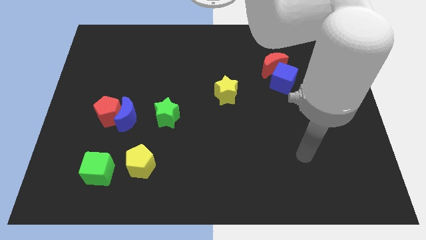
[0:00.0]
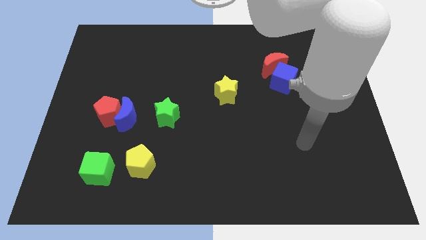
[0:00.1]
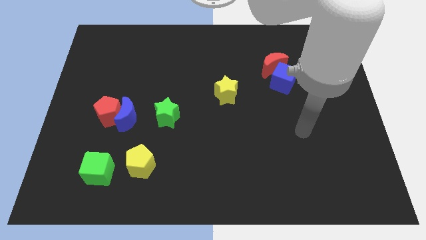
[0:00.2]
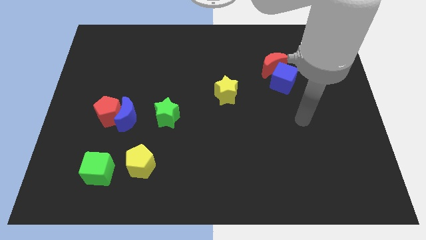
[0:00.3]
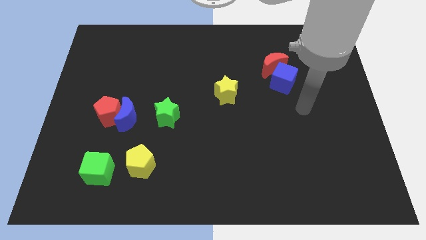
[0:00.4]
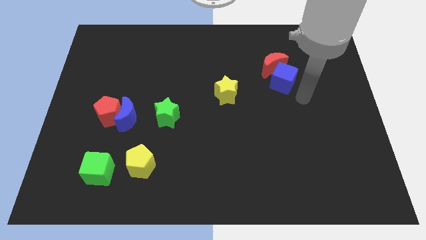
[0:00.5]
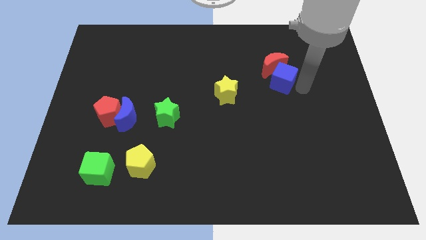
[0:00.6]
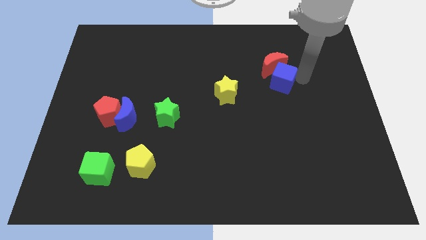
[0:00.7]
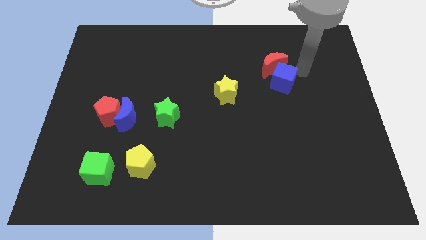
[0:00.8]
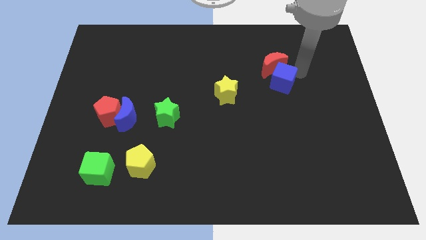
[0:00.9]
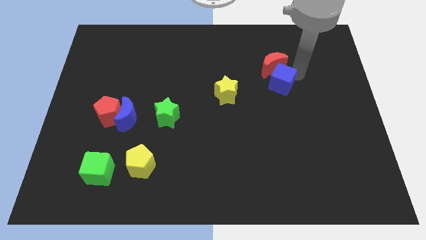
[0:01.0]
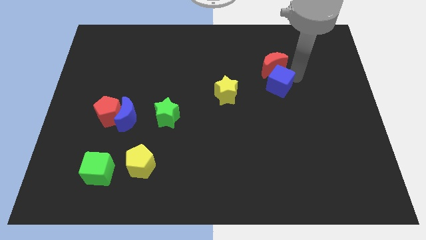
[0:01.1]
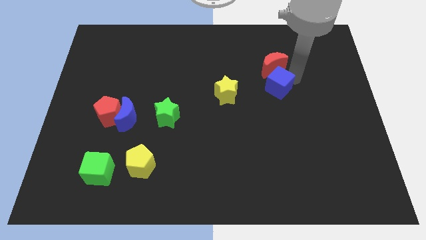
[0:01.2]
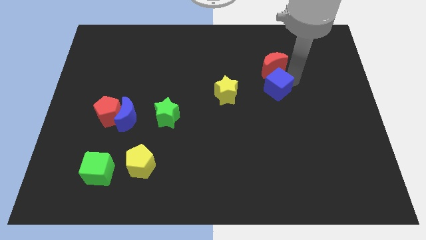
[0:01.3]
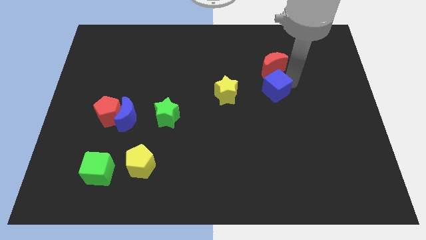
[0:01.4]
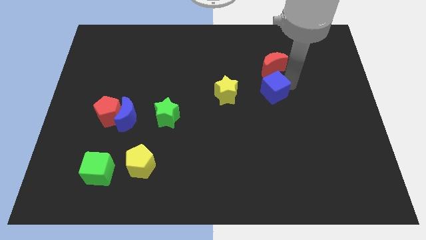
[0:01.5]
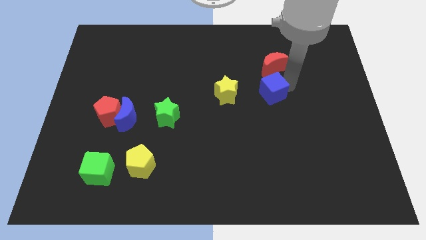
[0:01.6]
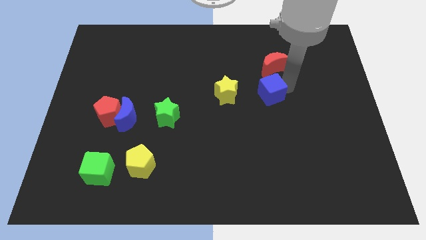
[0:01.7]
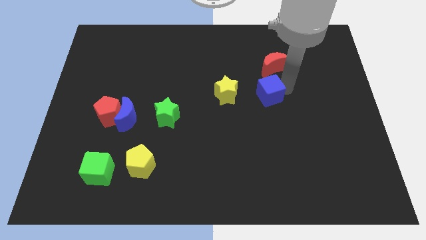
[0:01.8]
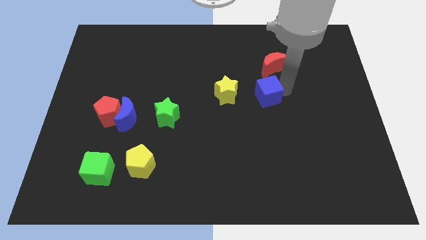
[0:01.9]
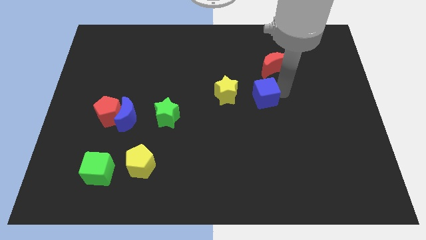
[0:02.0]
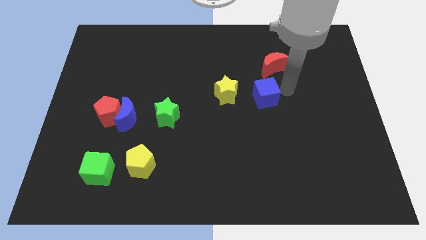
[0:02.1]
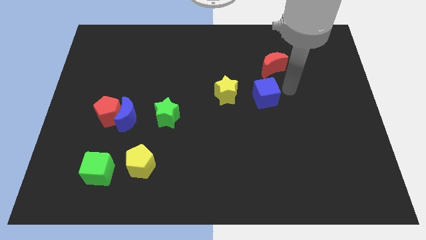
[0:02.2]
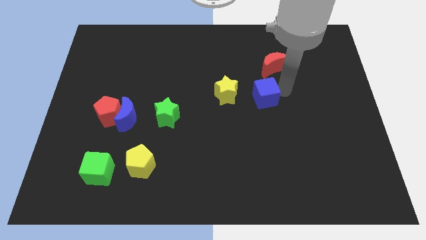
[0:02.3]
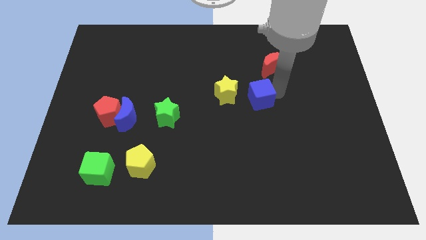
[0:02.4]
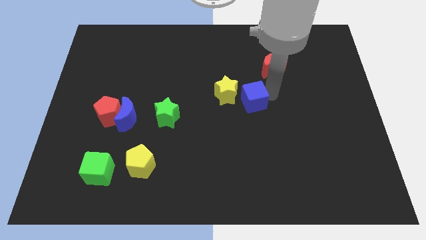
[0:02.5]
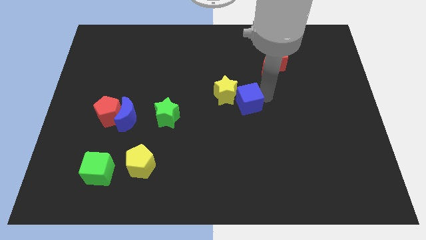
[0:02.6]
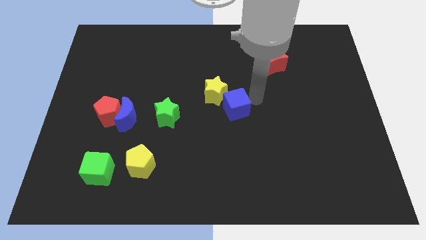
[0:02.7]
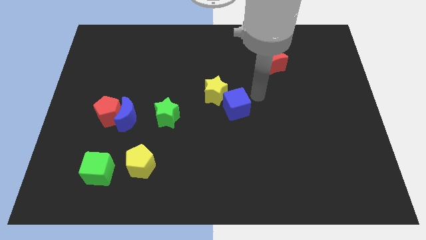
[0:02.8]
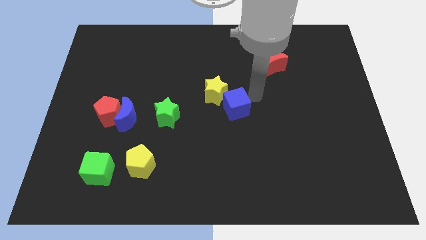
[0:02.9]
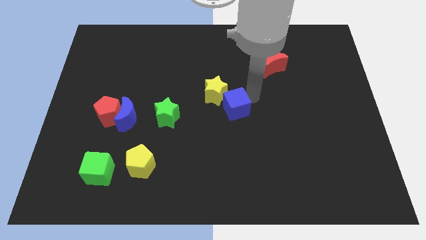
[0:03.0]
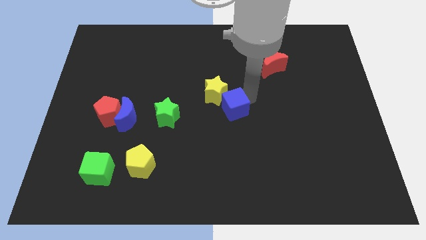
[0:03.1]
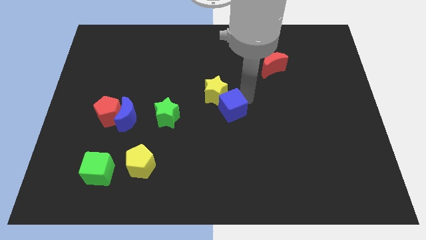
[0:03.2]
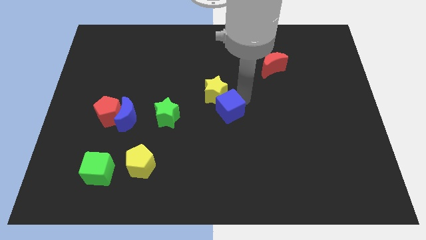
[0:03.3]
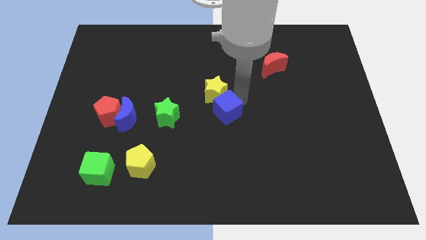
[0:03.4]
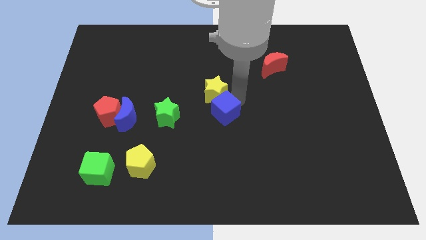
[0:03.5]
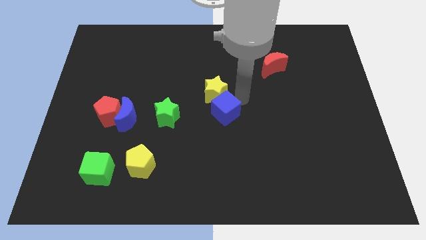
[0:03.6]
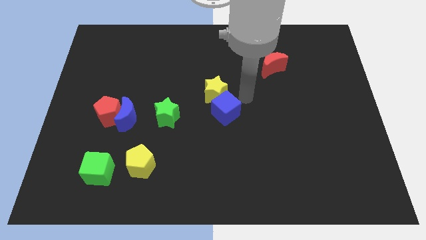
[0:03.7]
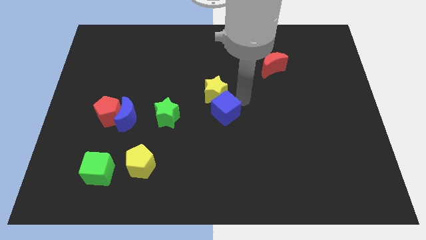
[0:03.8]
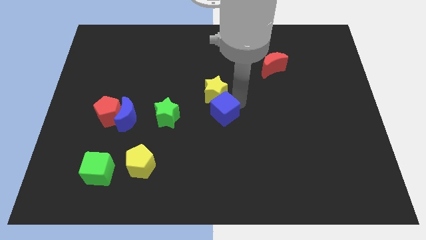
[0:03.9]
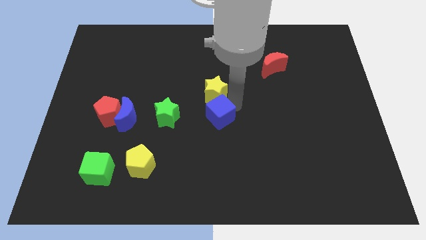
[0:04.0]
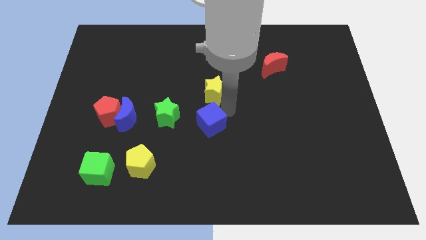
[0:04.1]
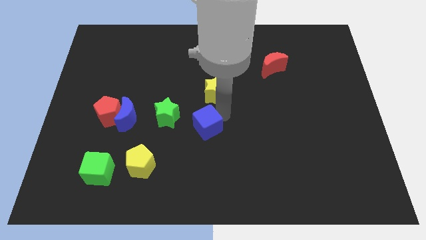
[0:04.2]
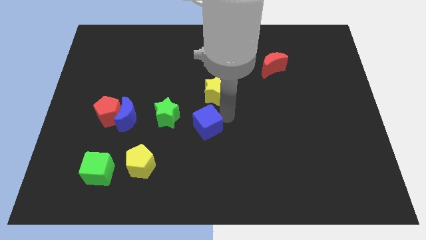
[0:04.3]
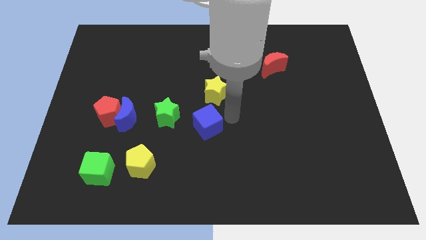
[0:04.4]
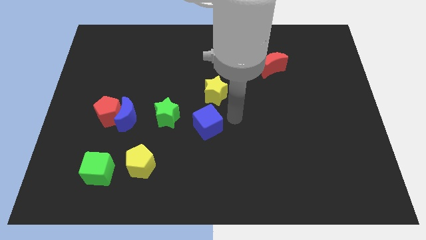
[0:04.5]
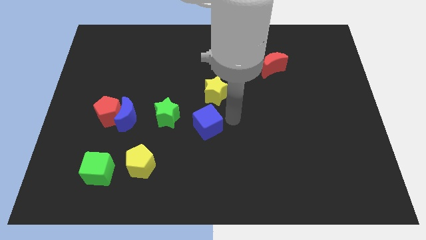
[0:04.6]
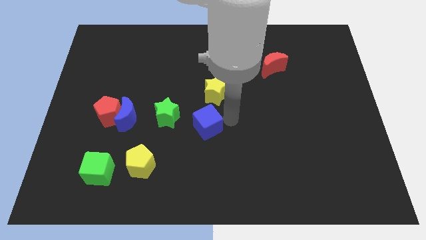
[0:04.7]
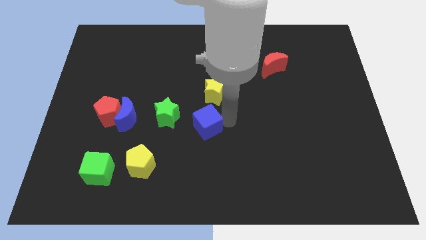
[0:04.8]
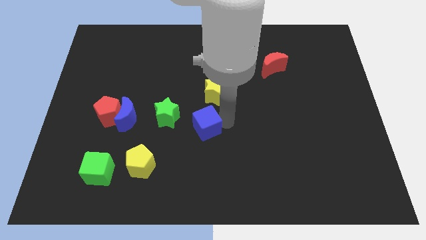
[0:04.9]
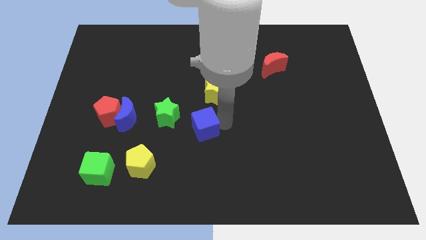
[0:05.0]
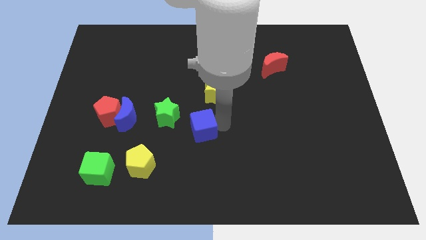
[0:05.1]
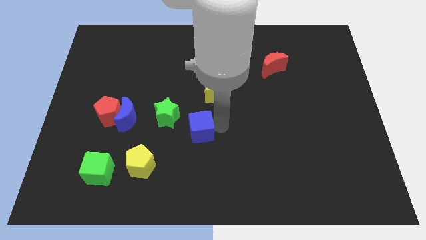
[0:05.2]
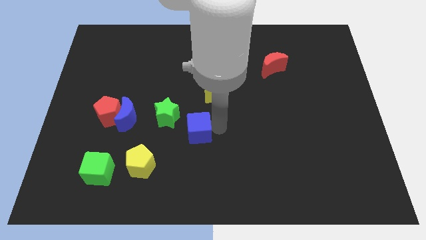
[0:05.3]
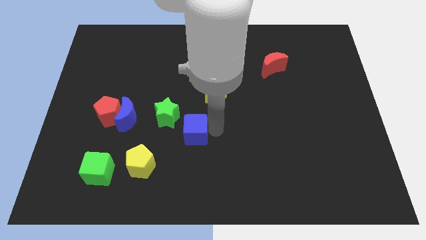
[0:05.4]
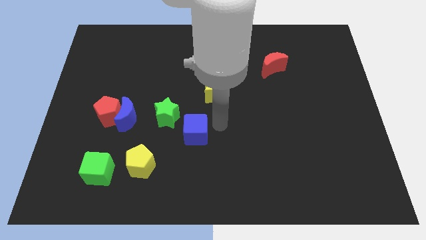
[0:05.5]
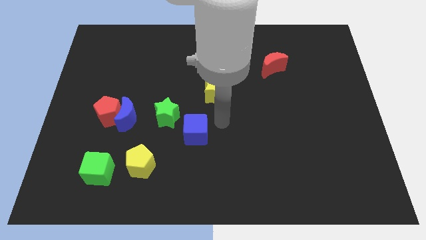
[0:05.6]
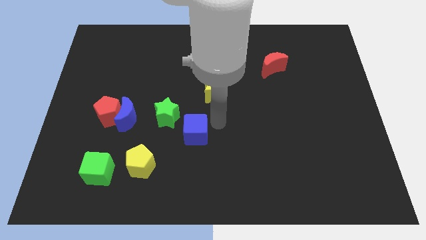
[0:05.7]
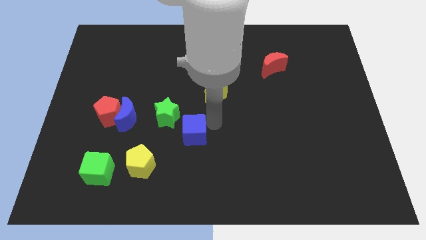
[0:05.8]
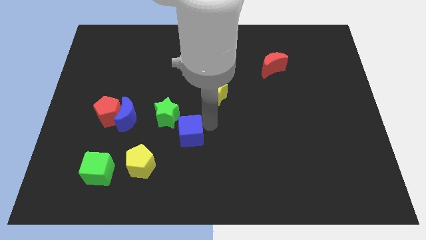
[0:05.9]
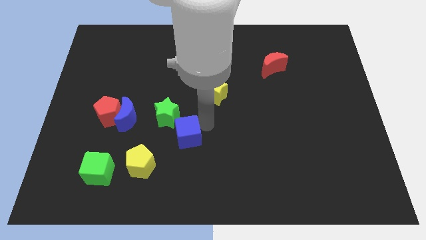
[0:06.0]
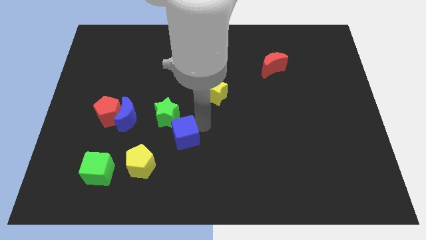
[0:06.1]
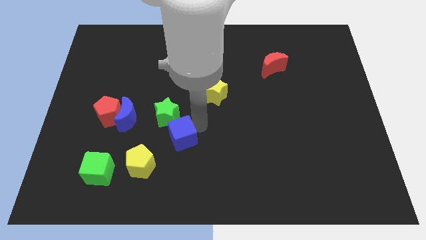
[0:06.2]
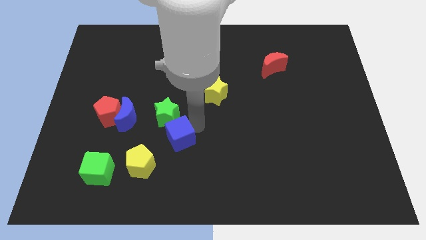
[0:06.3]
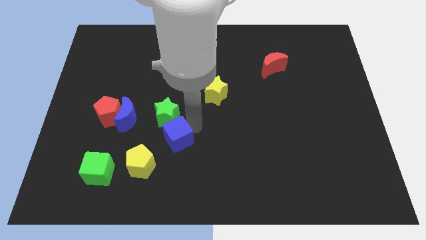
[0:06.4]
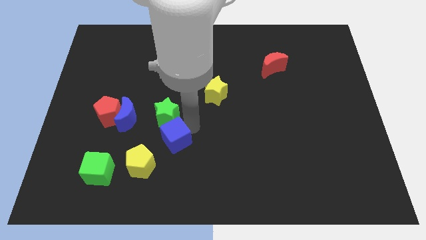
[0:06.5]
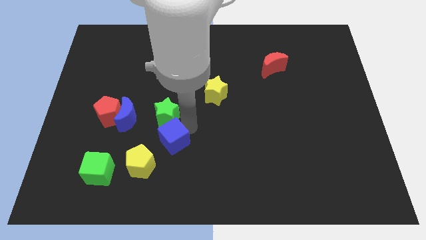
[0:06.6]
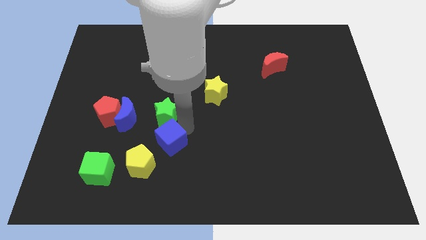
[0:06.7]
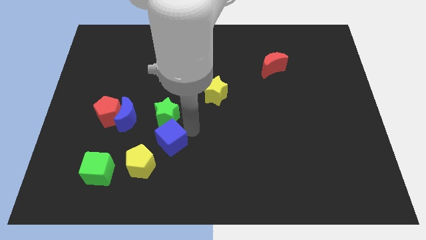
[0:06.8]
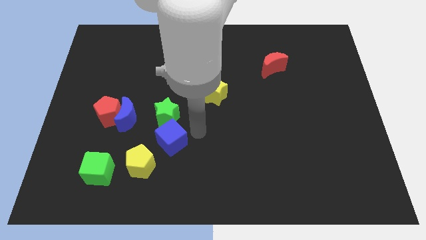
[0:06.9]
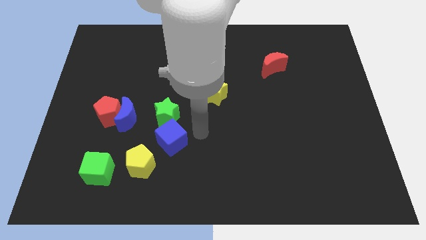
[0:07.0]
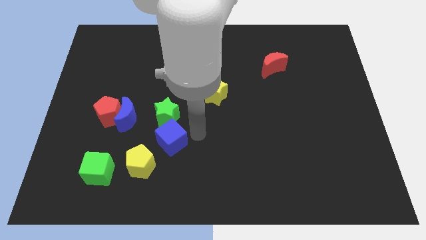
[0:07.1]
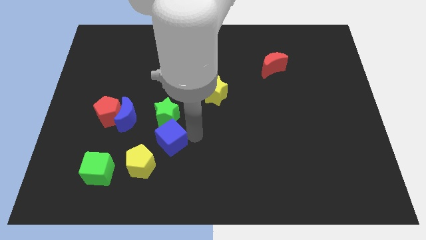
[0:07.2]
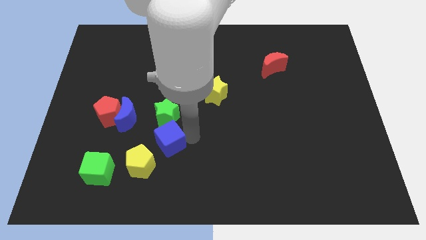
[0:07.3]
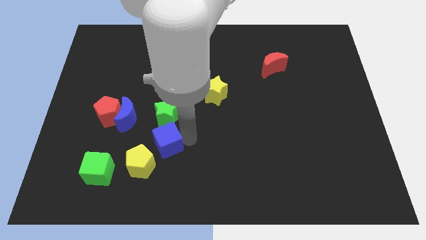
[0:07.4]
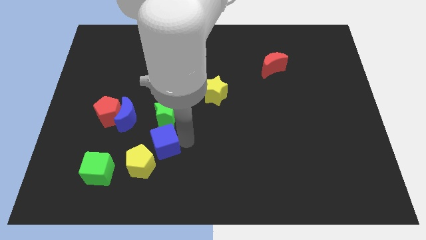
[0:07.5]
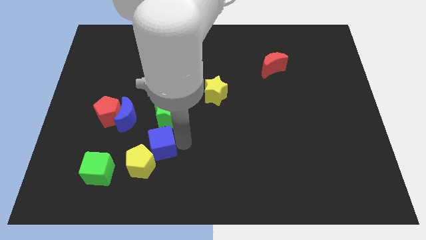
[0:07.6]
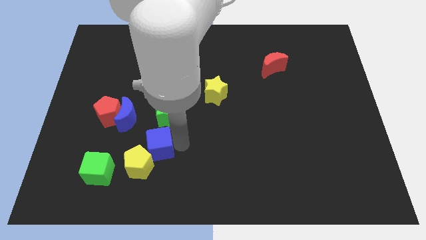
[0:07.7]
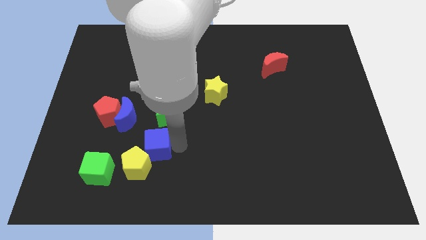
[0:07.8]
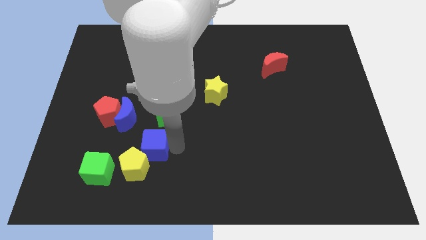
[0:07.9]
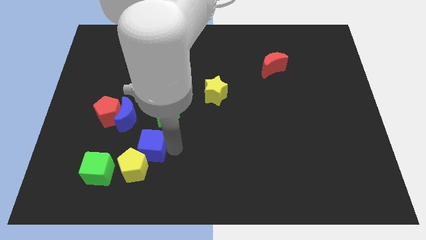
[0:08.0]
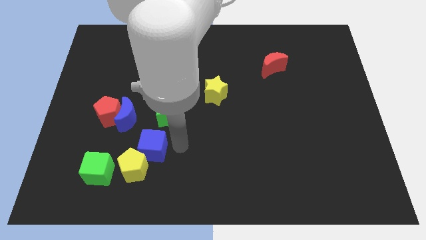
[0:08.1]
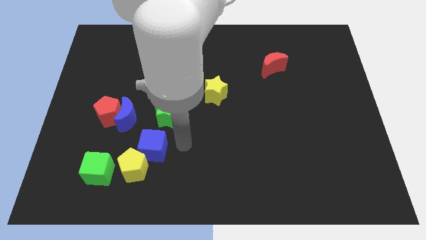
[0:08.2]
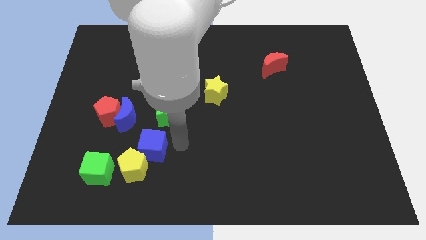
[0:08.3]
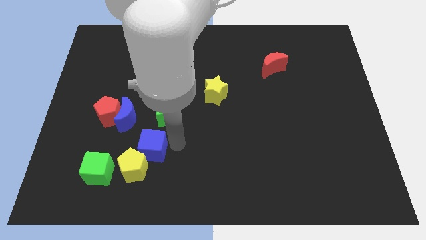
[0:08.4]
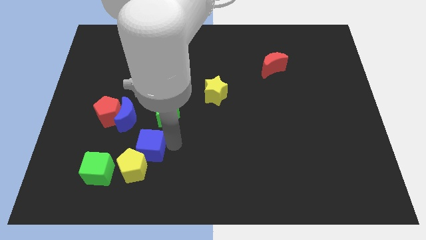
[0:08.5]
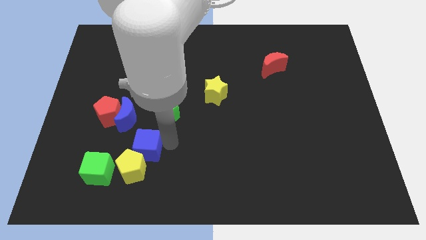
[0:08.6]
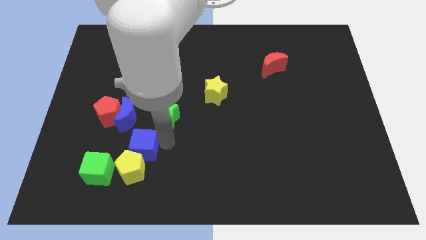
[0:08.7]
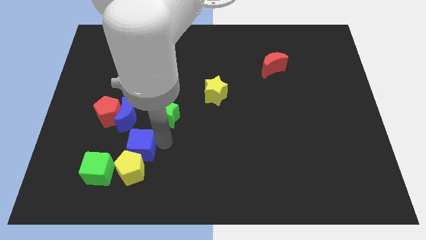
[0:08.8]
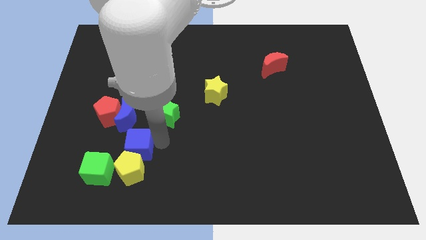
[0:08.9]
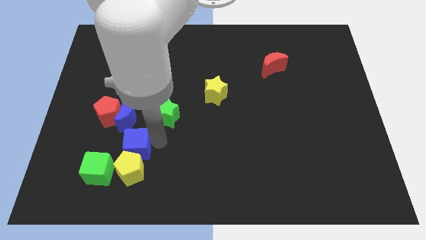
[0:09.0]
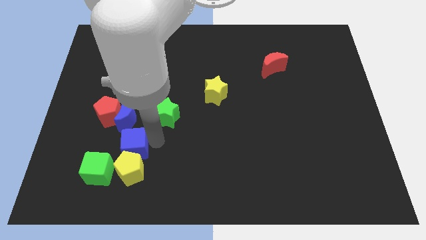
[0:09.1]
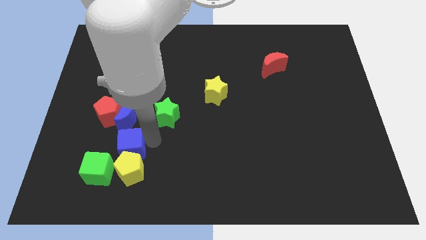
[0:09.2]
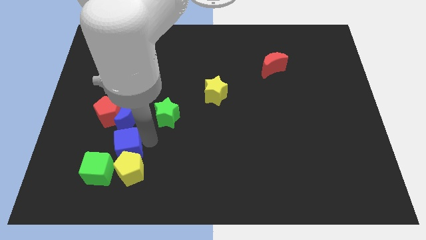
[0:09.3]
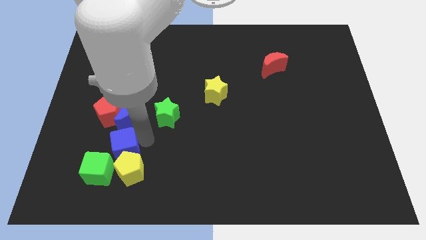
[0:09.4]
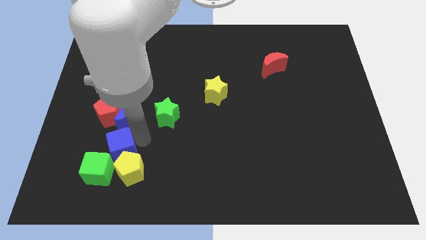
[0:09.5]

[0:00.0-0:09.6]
slide the blue cube to the bottom of the red pentagon
